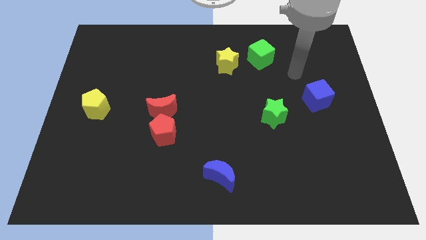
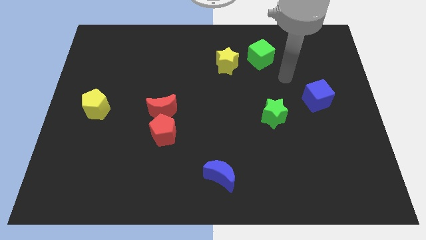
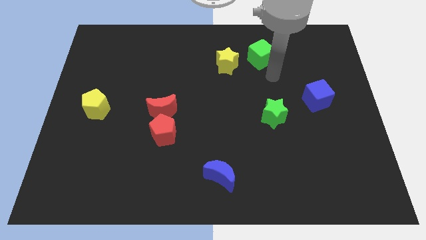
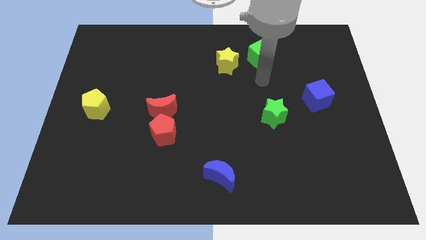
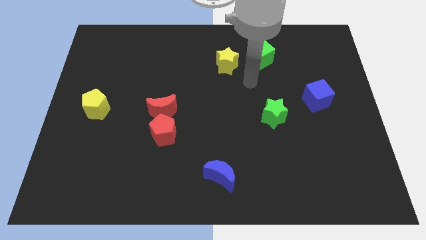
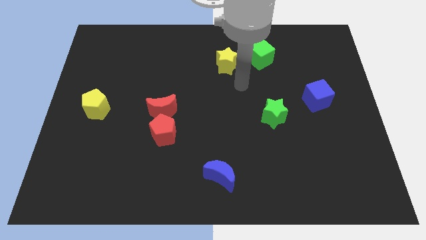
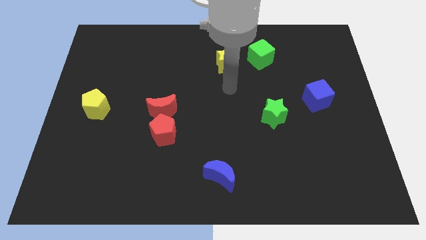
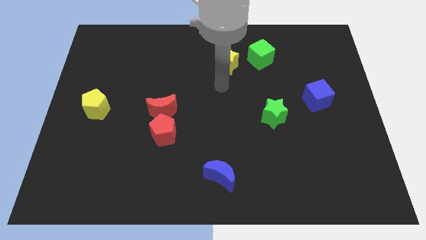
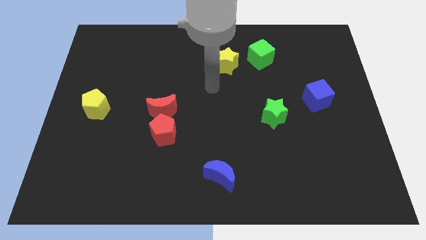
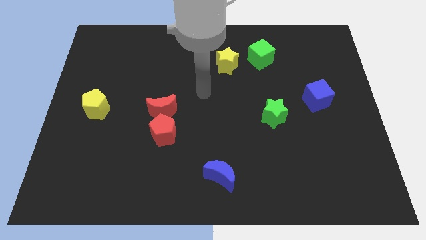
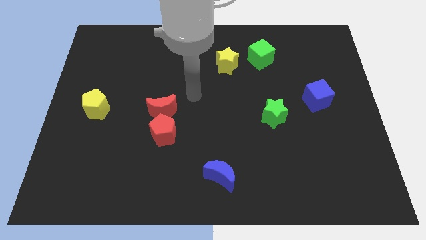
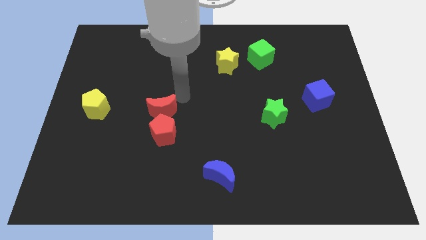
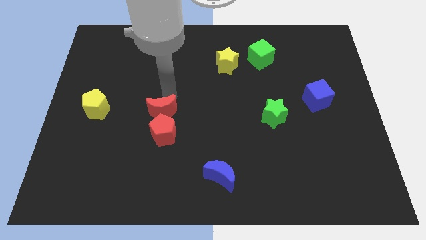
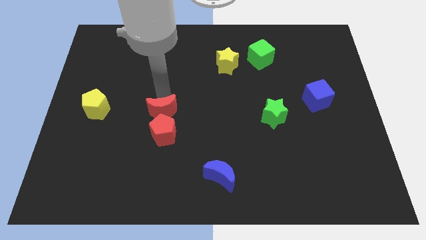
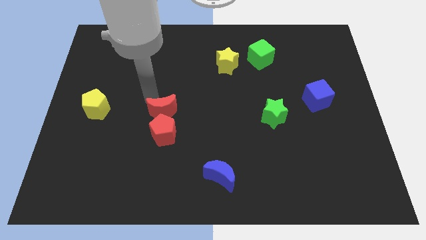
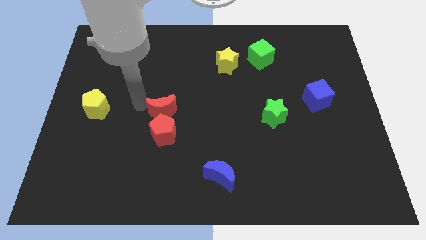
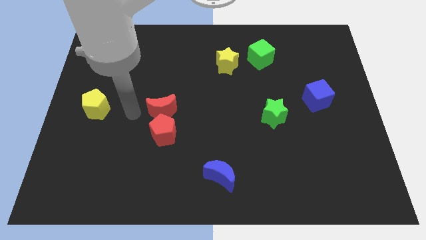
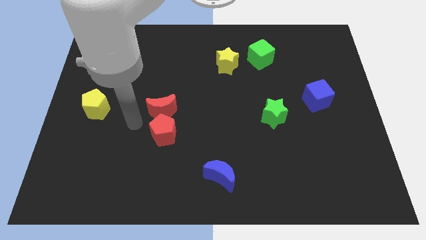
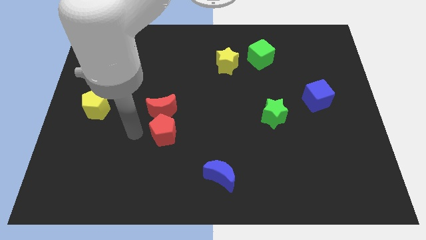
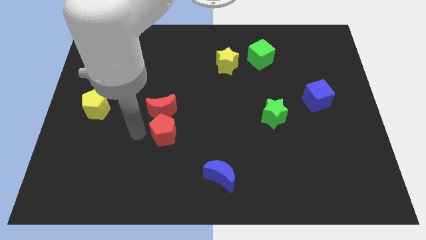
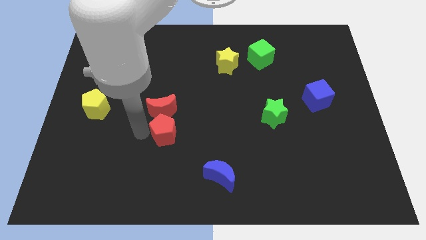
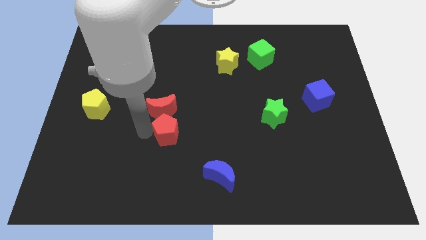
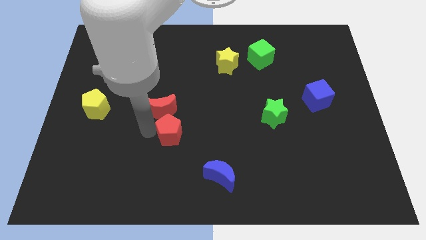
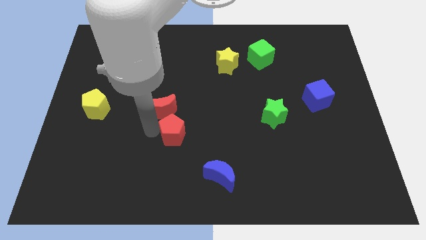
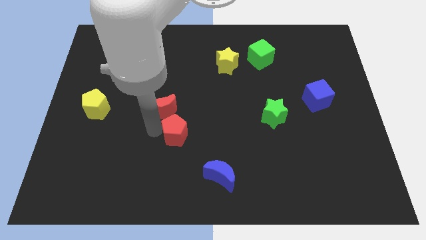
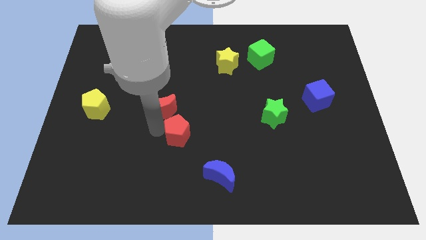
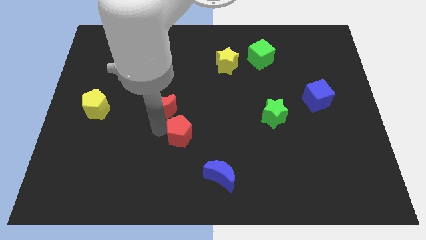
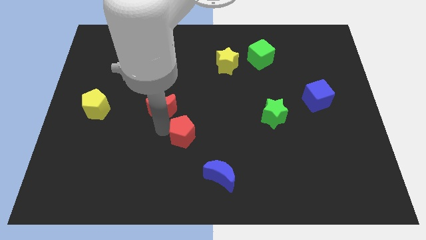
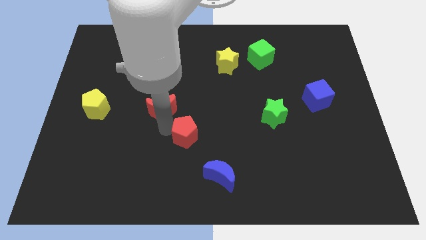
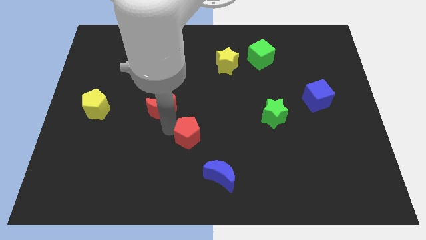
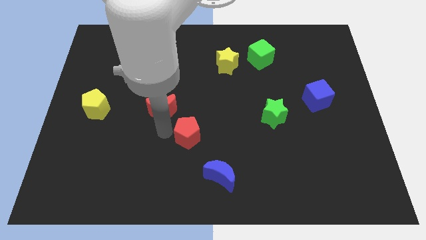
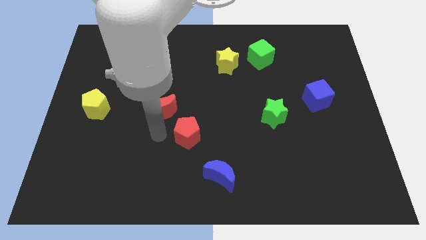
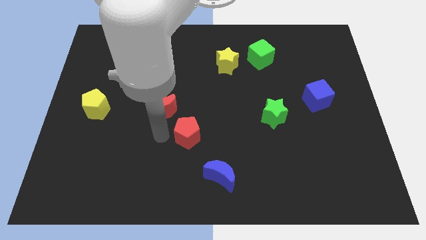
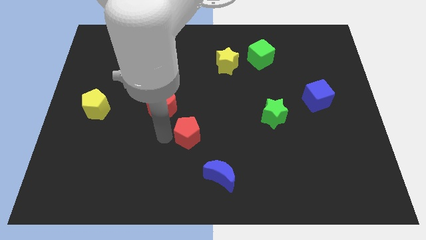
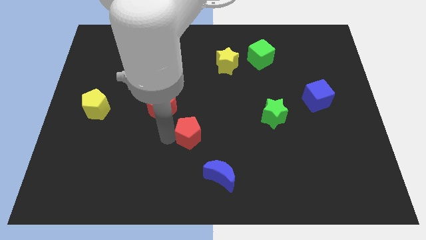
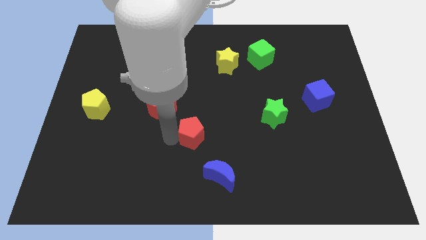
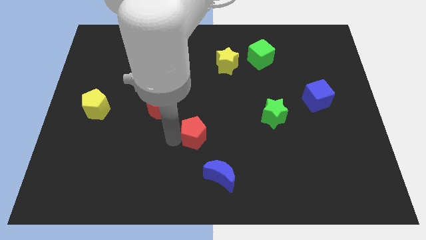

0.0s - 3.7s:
slightly push the red pentagon to the right

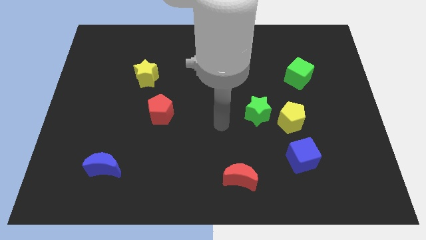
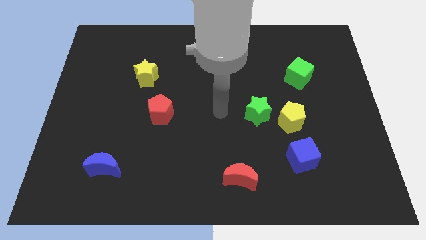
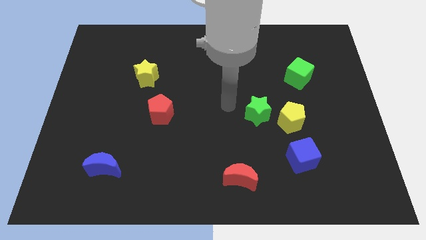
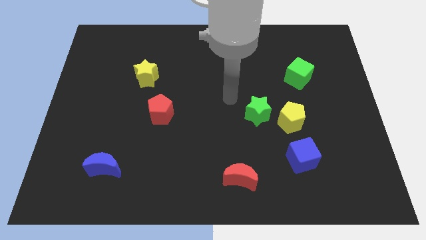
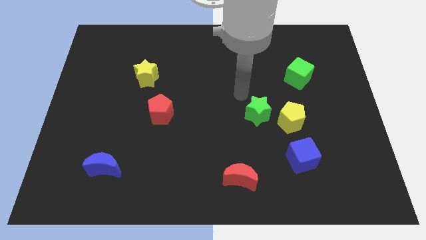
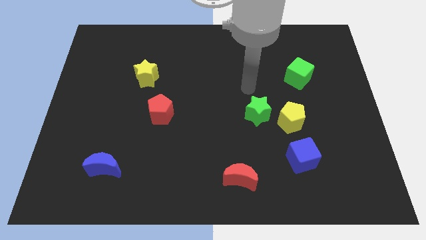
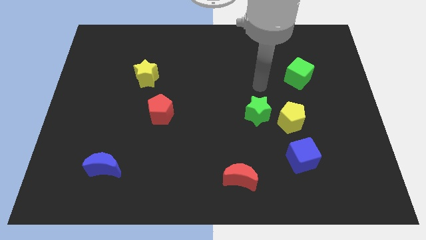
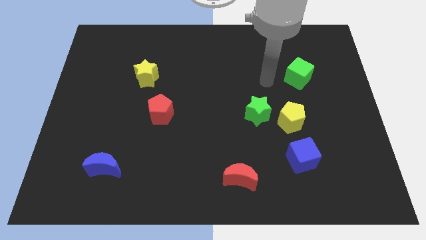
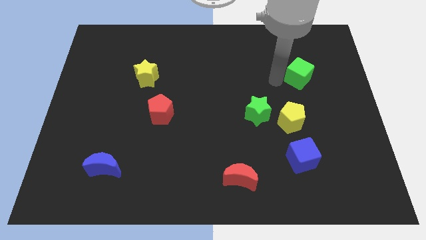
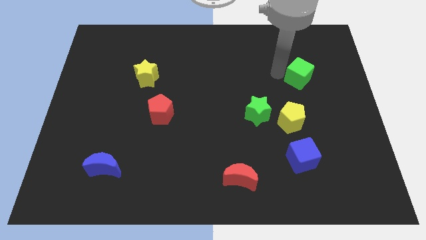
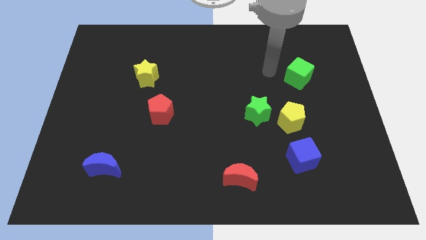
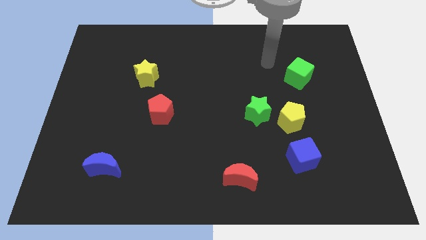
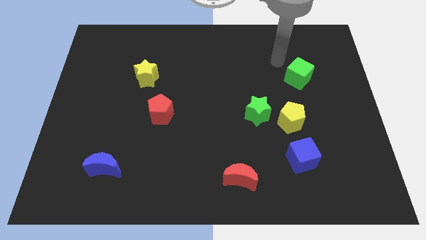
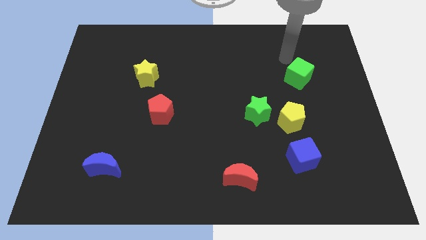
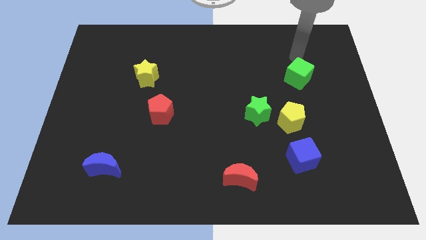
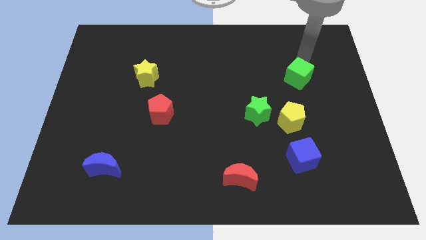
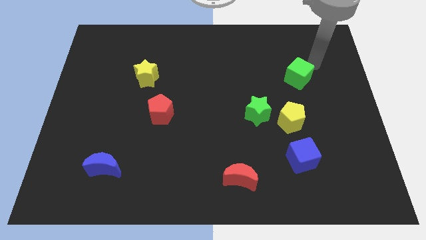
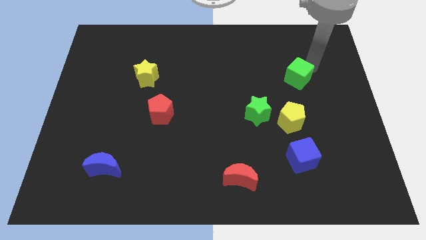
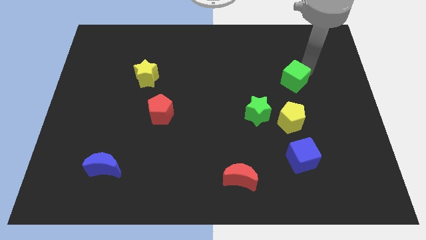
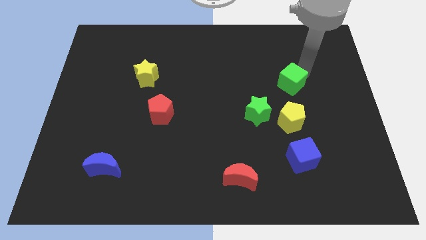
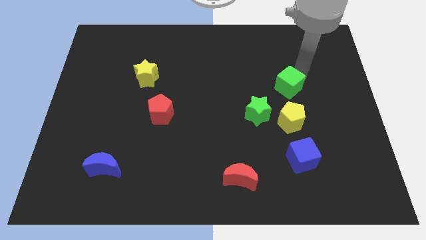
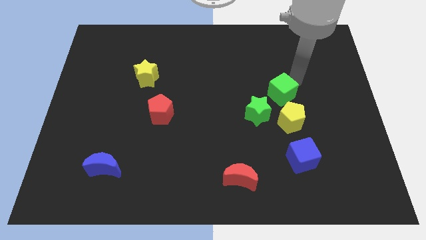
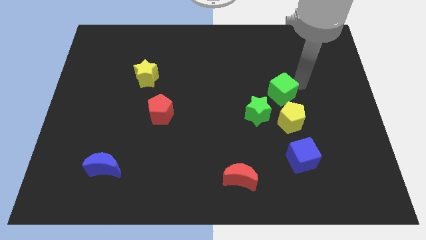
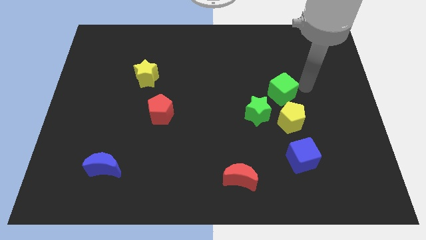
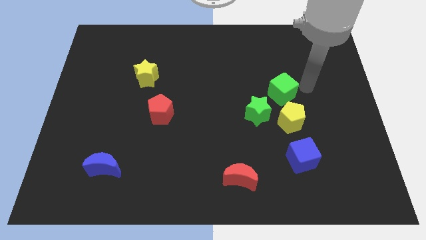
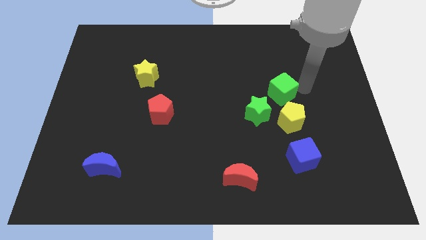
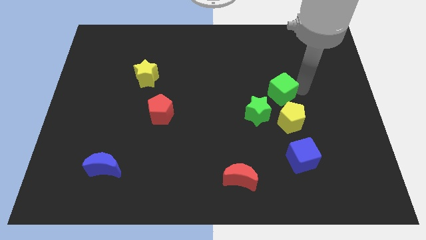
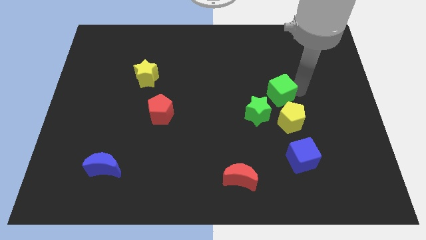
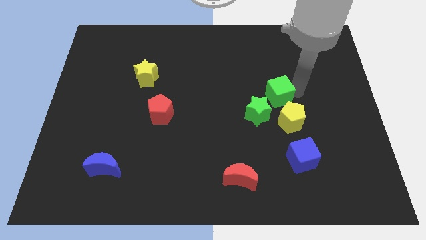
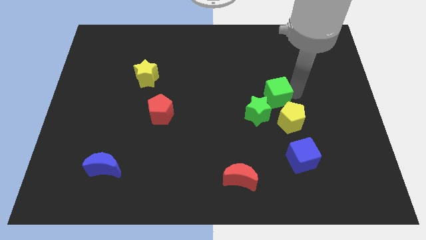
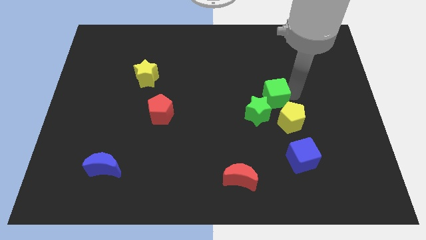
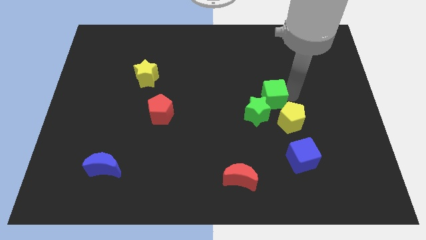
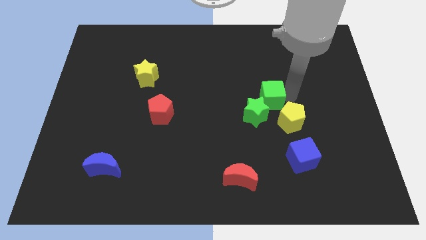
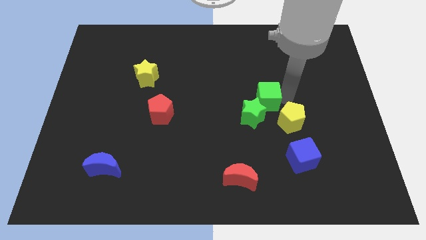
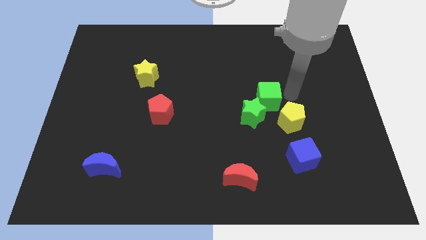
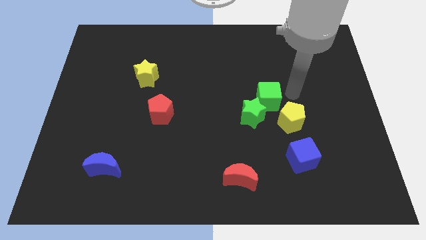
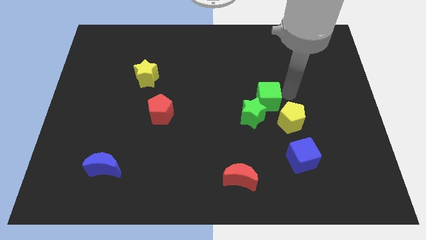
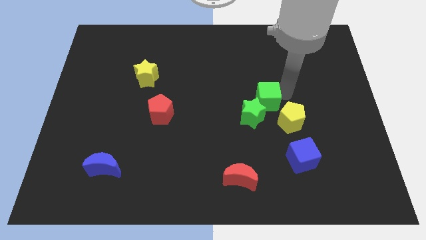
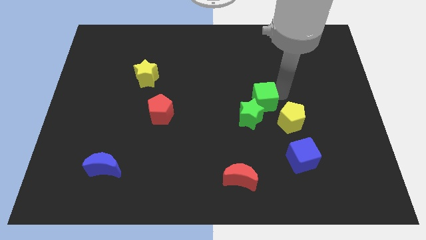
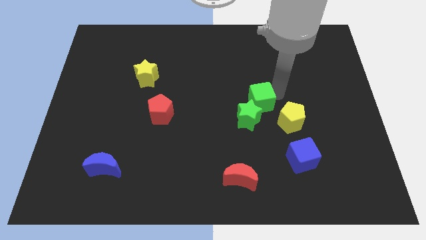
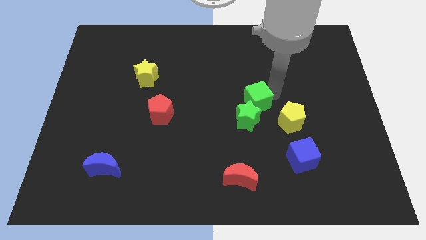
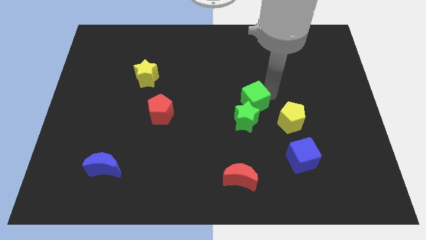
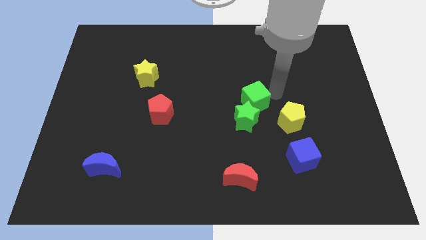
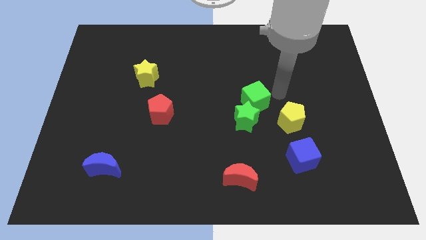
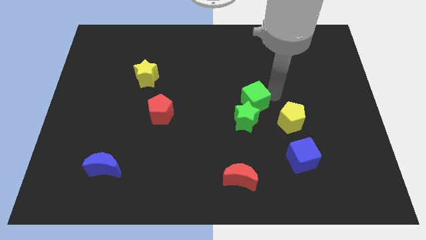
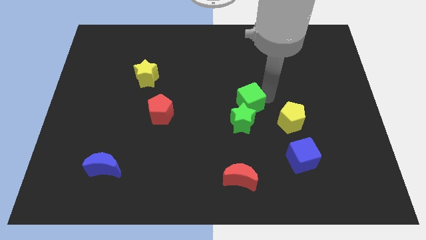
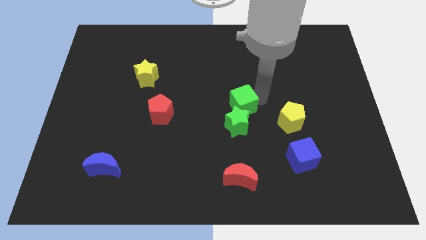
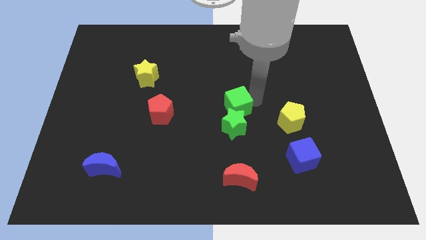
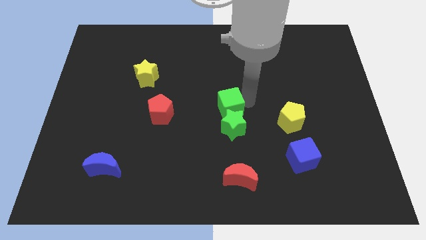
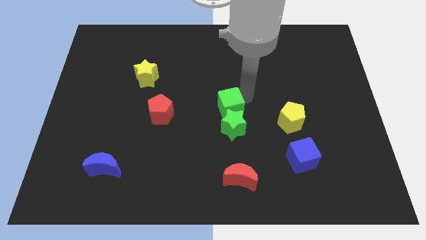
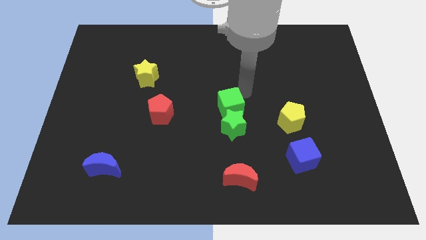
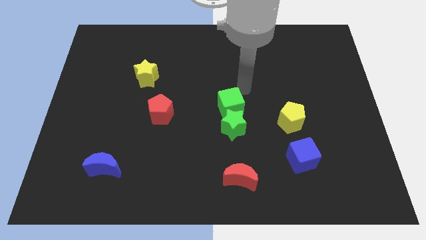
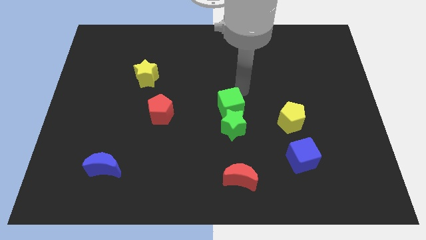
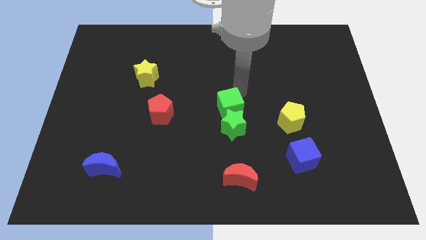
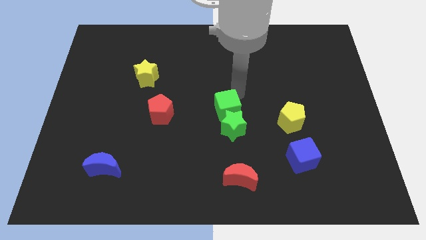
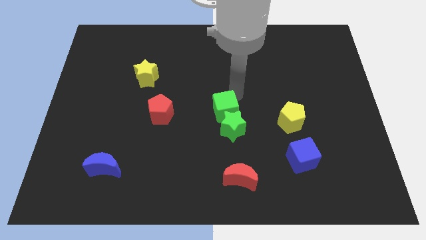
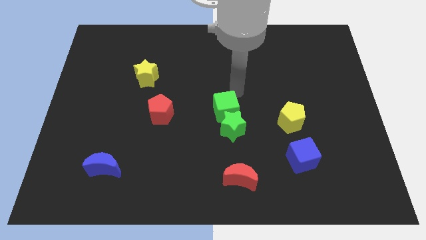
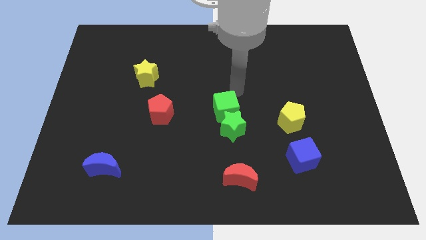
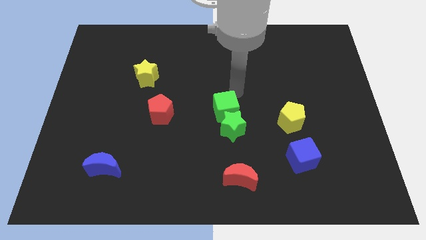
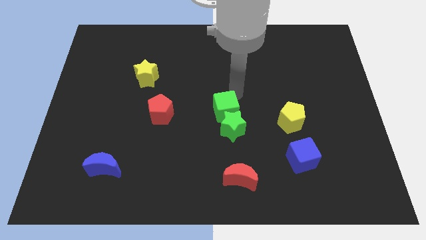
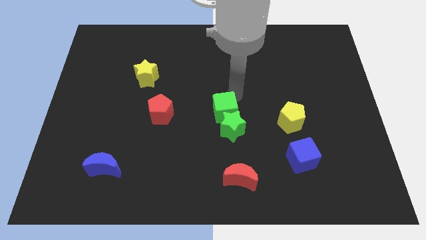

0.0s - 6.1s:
move the green cube diagonally downwards and to the left
